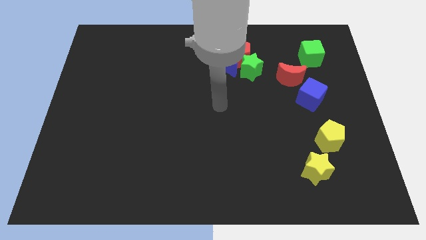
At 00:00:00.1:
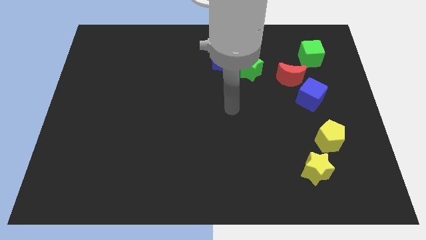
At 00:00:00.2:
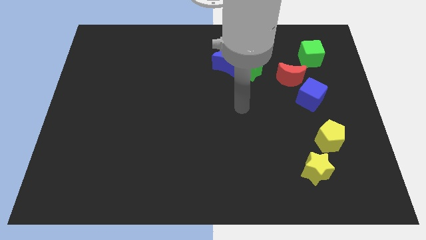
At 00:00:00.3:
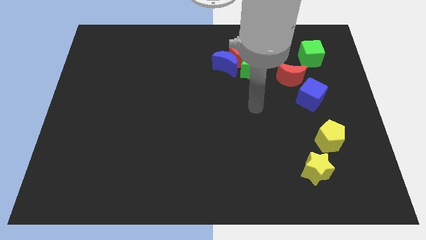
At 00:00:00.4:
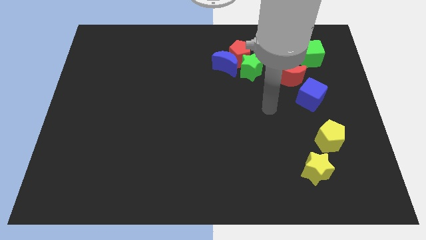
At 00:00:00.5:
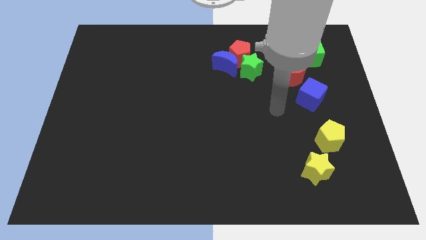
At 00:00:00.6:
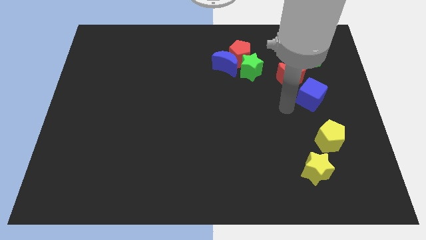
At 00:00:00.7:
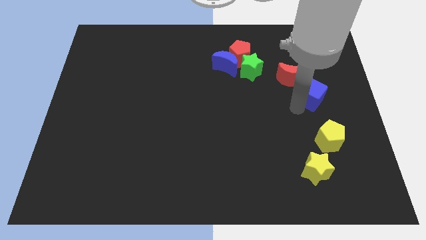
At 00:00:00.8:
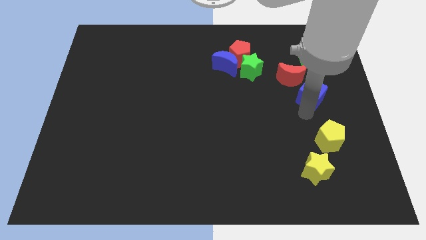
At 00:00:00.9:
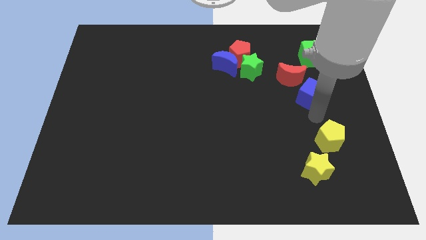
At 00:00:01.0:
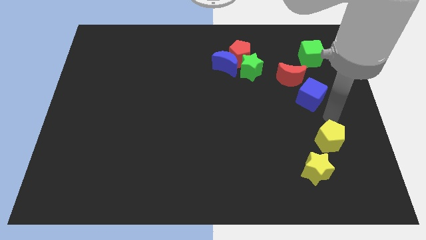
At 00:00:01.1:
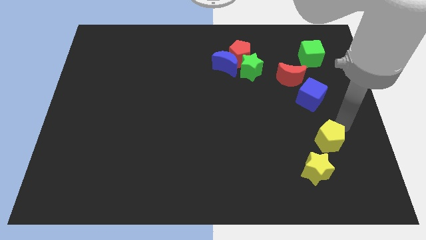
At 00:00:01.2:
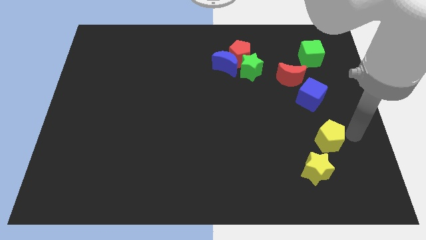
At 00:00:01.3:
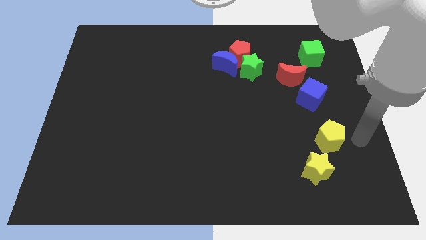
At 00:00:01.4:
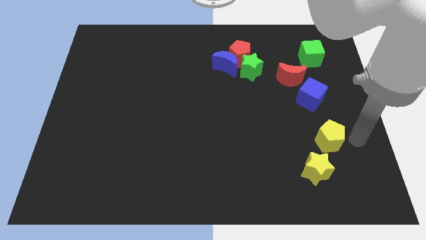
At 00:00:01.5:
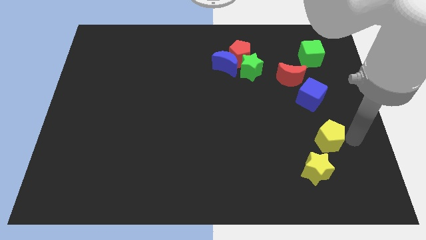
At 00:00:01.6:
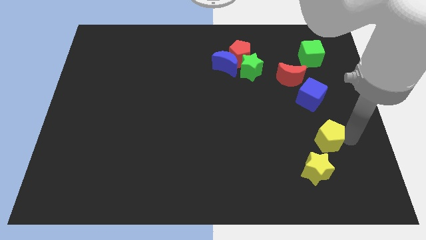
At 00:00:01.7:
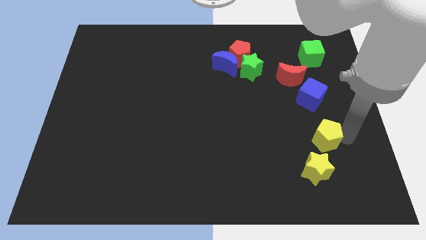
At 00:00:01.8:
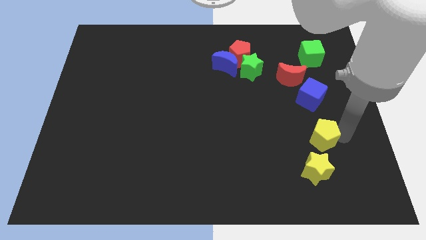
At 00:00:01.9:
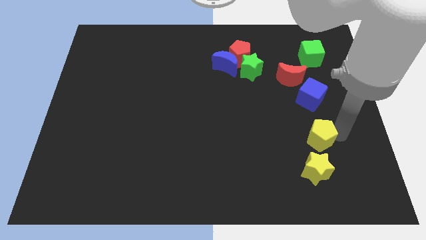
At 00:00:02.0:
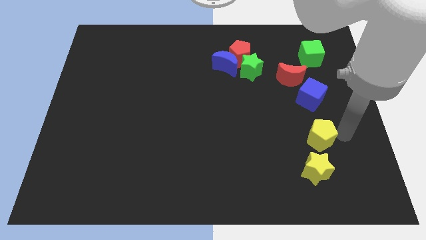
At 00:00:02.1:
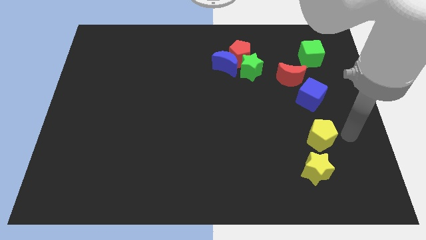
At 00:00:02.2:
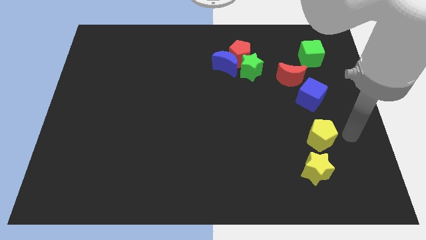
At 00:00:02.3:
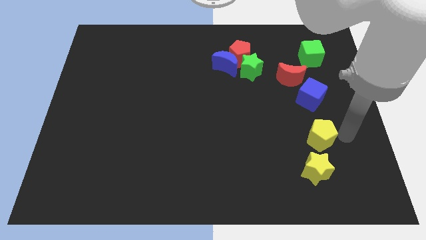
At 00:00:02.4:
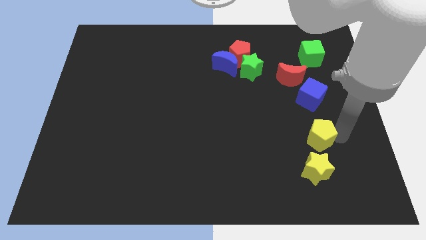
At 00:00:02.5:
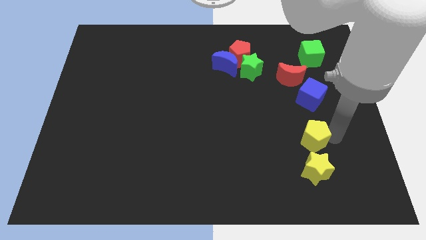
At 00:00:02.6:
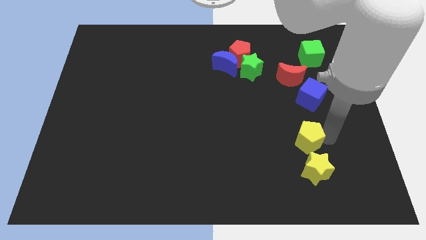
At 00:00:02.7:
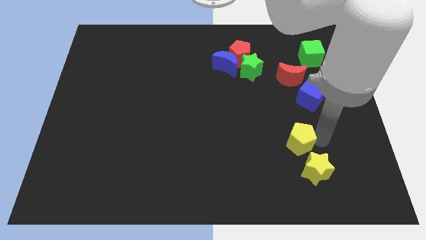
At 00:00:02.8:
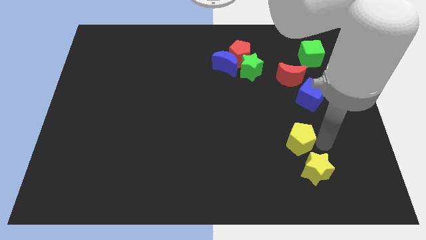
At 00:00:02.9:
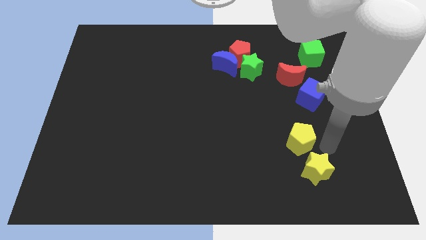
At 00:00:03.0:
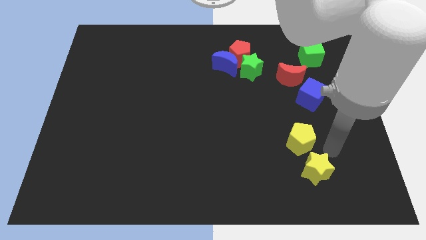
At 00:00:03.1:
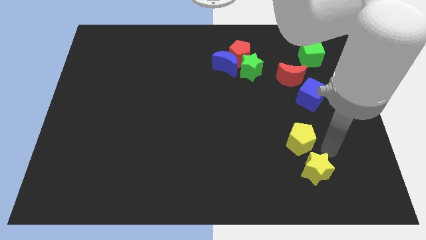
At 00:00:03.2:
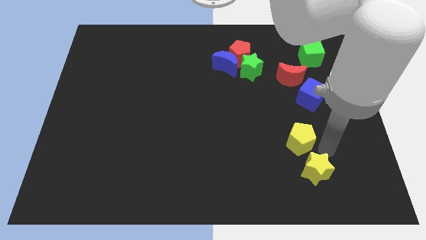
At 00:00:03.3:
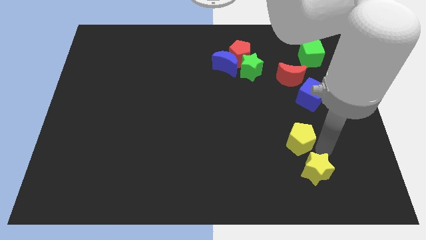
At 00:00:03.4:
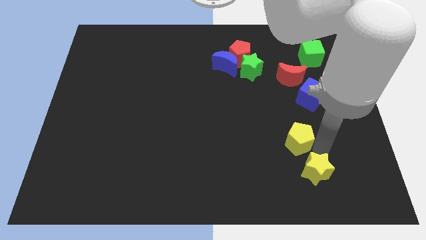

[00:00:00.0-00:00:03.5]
slide the yellow pentagon somewhat left

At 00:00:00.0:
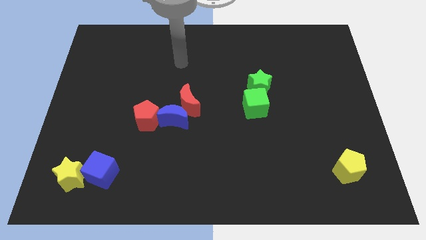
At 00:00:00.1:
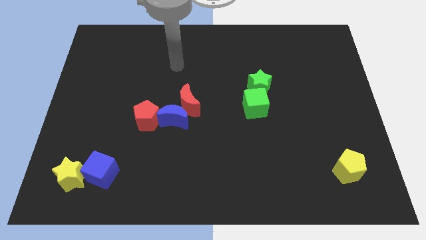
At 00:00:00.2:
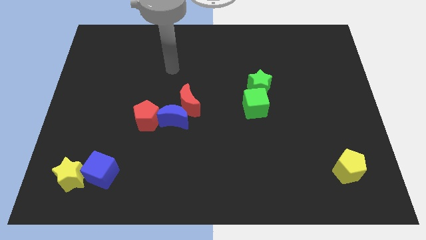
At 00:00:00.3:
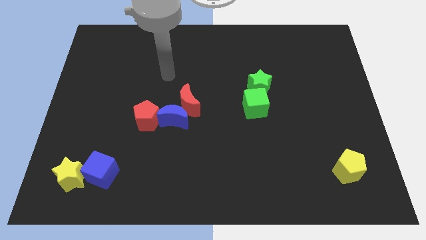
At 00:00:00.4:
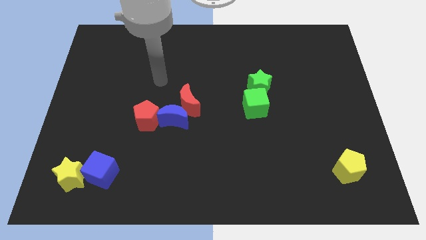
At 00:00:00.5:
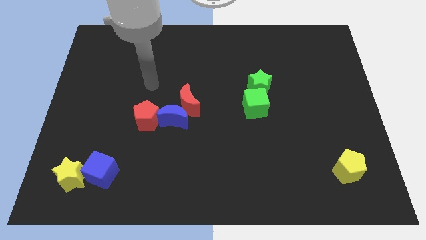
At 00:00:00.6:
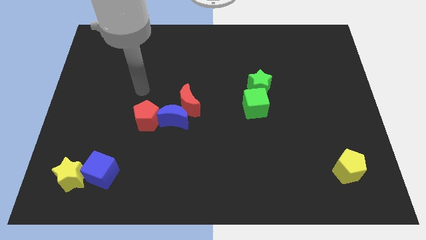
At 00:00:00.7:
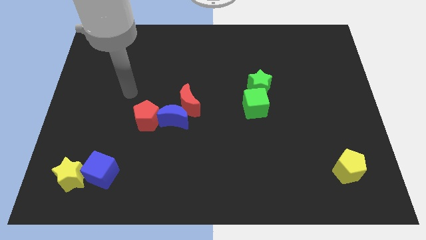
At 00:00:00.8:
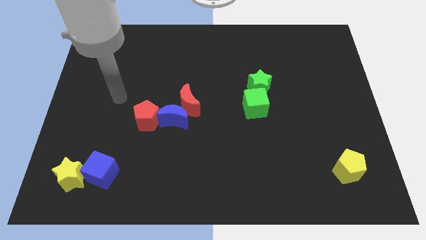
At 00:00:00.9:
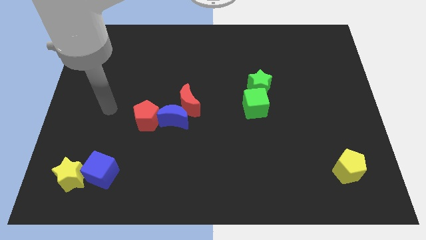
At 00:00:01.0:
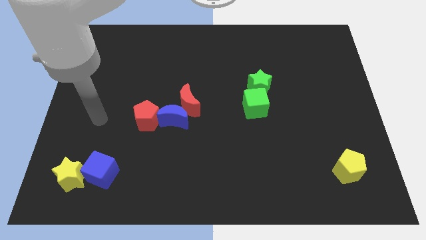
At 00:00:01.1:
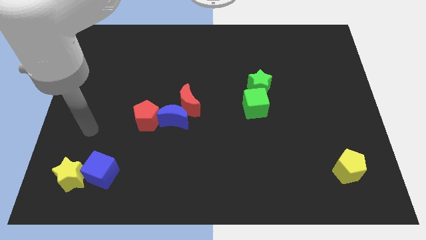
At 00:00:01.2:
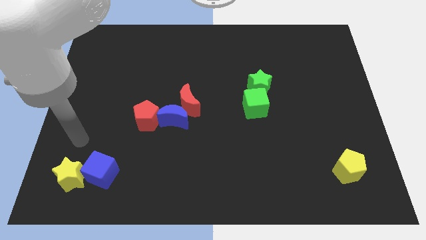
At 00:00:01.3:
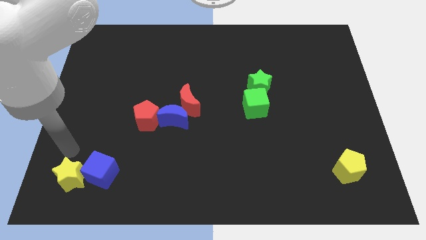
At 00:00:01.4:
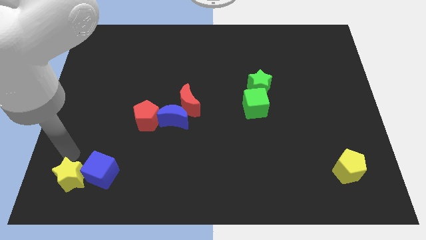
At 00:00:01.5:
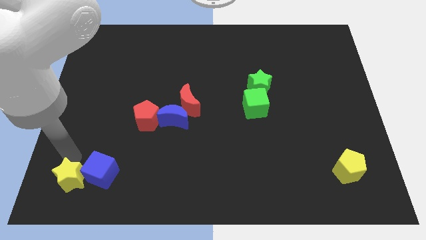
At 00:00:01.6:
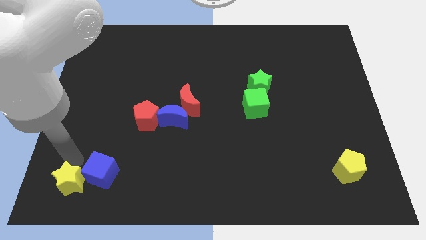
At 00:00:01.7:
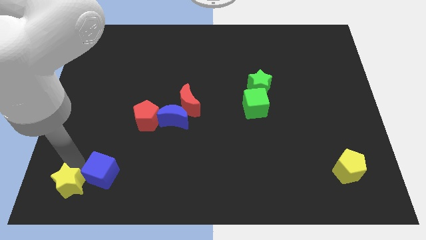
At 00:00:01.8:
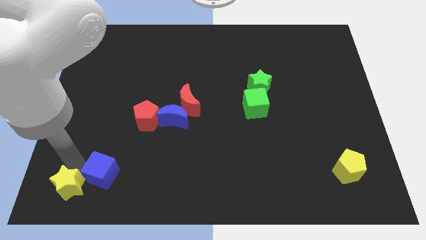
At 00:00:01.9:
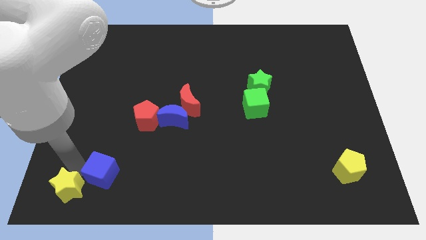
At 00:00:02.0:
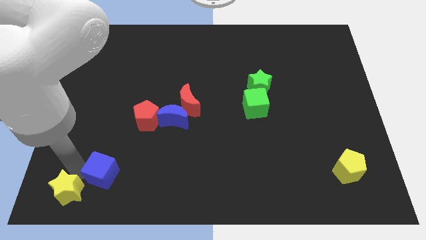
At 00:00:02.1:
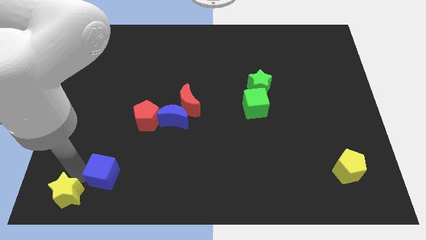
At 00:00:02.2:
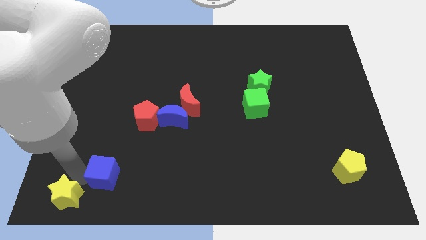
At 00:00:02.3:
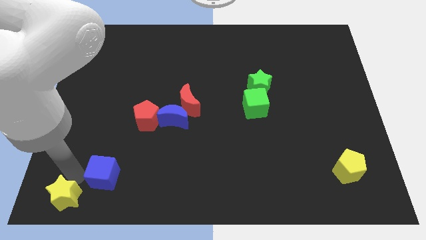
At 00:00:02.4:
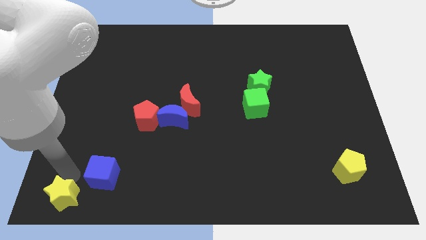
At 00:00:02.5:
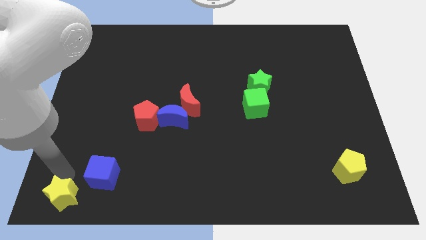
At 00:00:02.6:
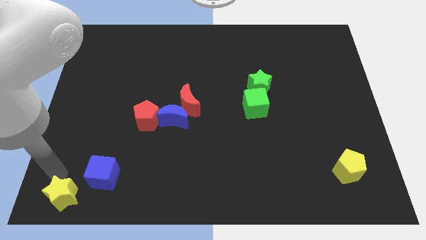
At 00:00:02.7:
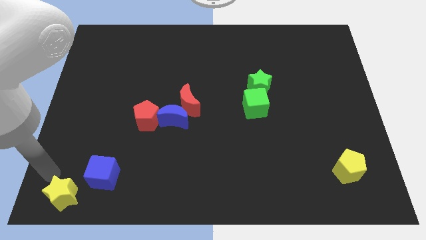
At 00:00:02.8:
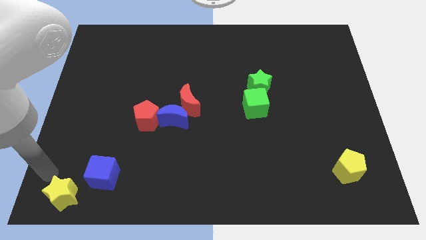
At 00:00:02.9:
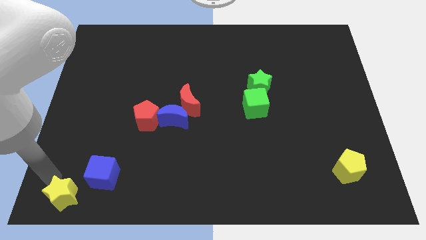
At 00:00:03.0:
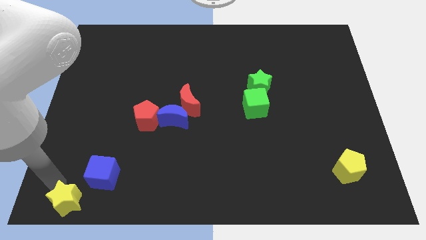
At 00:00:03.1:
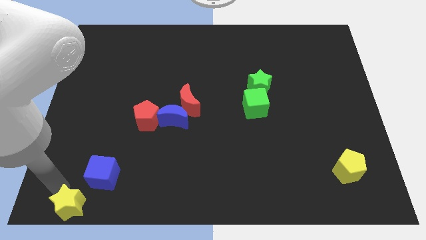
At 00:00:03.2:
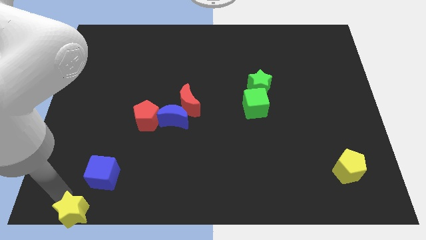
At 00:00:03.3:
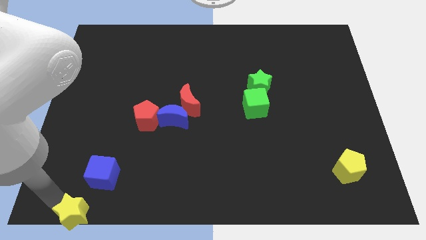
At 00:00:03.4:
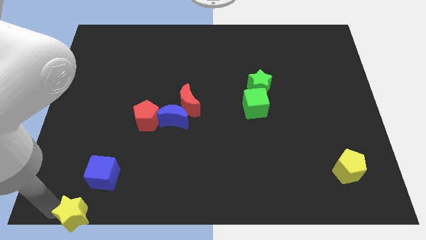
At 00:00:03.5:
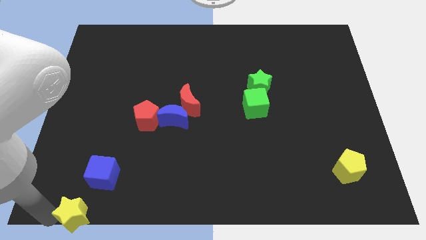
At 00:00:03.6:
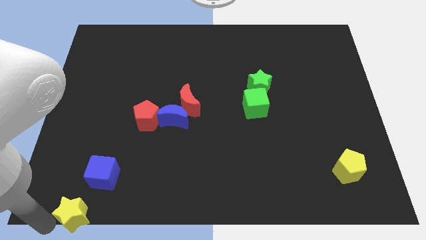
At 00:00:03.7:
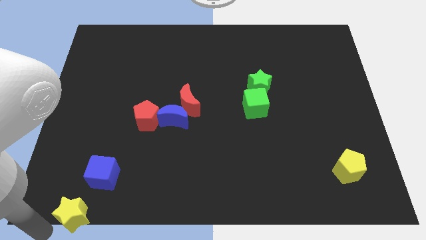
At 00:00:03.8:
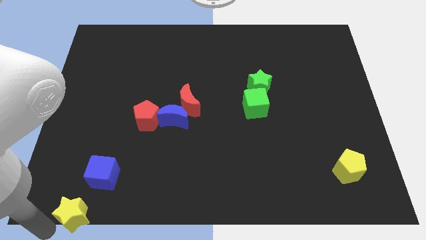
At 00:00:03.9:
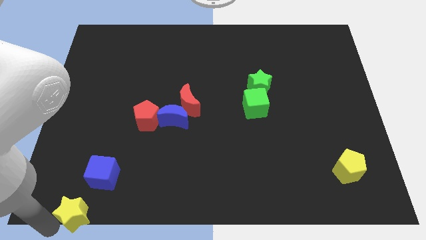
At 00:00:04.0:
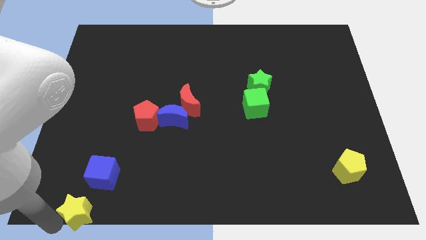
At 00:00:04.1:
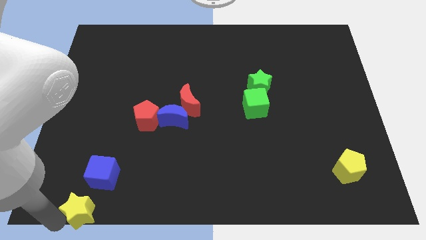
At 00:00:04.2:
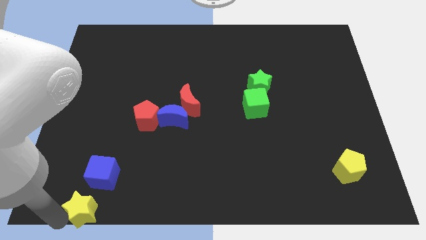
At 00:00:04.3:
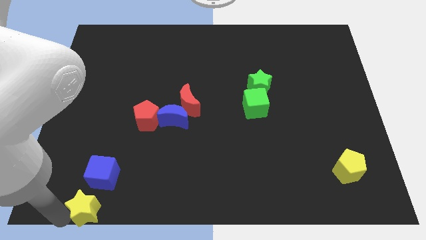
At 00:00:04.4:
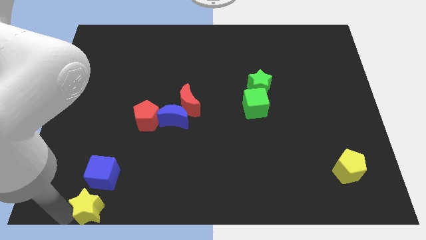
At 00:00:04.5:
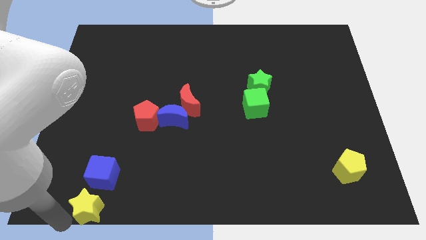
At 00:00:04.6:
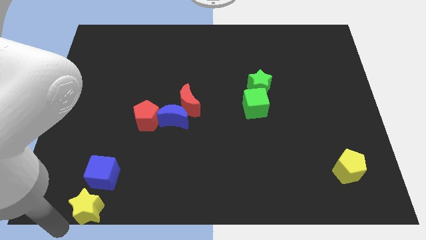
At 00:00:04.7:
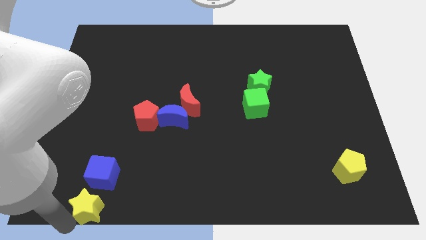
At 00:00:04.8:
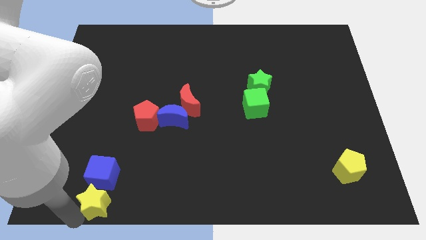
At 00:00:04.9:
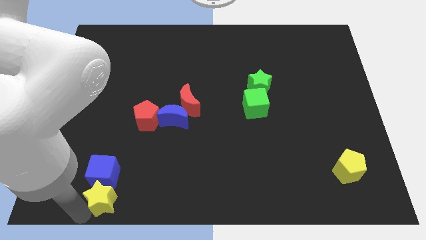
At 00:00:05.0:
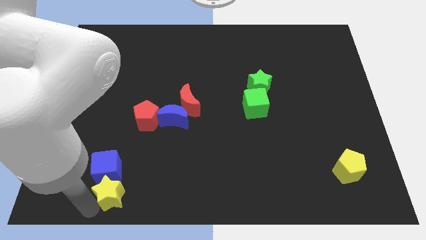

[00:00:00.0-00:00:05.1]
move the yellow star a little right
